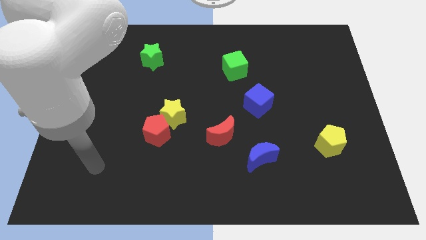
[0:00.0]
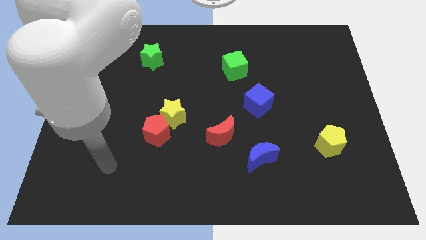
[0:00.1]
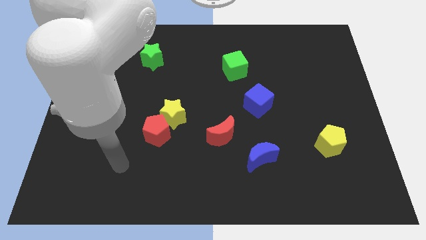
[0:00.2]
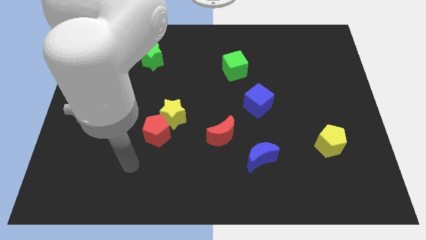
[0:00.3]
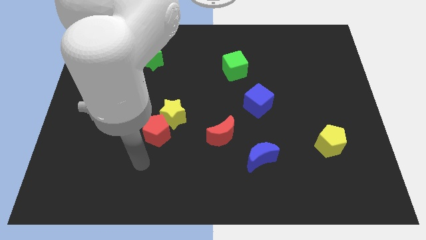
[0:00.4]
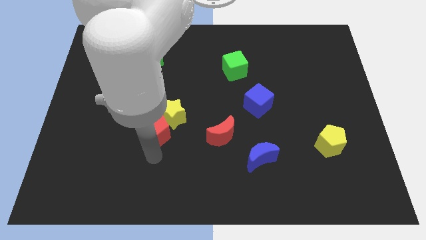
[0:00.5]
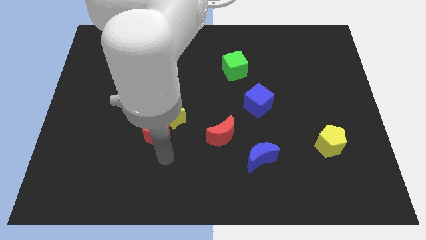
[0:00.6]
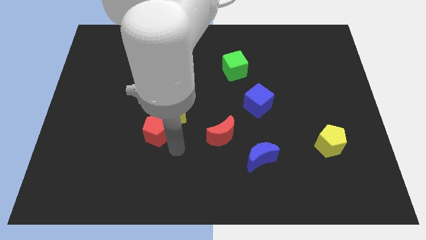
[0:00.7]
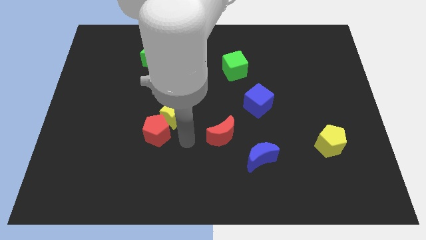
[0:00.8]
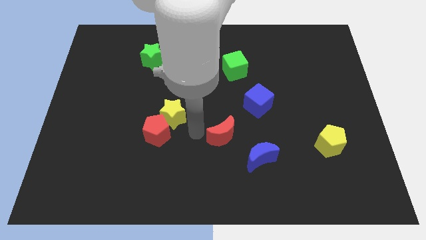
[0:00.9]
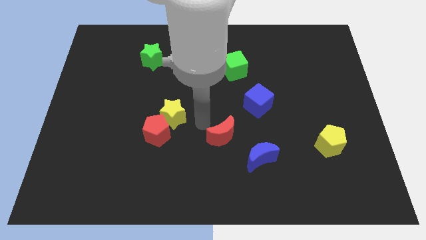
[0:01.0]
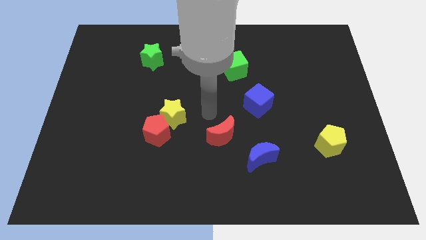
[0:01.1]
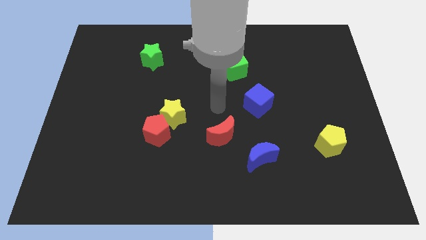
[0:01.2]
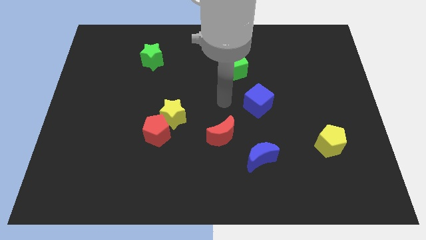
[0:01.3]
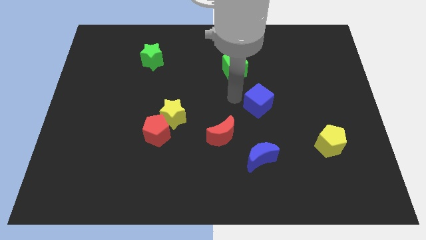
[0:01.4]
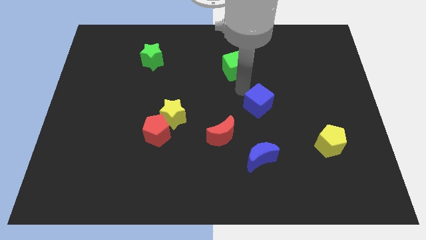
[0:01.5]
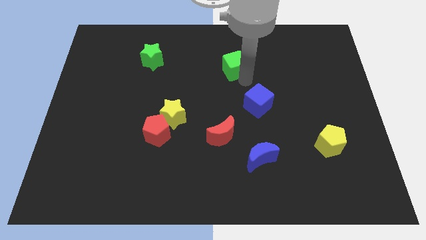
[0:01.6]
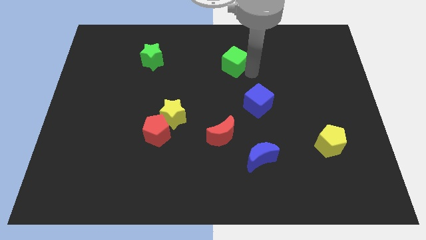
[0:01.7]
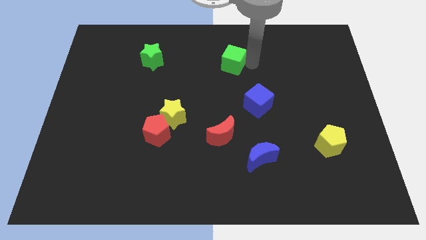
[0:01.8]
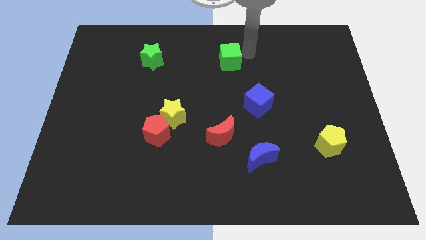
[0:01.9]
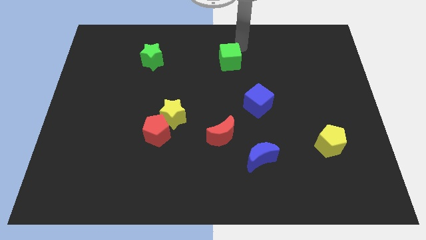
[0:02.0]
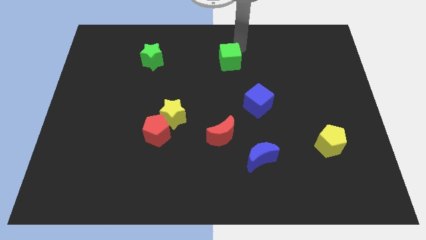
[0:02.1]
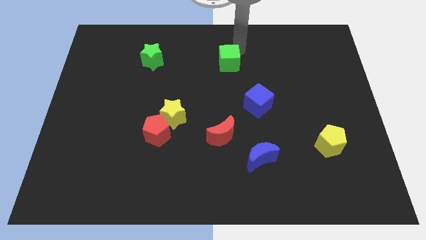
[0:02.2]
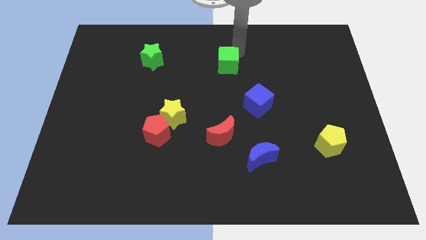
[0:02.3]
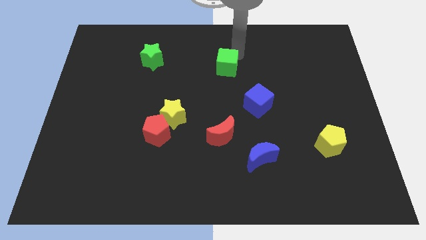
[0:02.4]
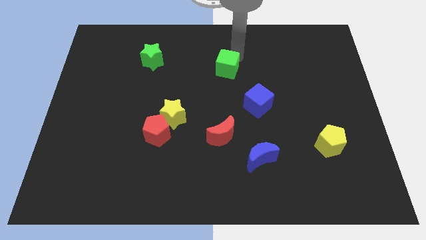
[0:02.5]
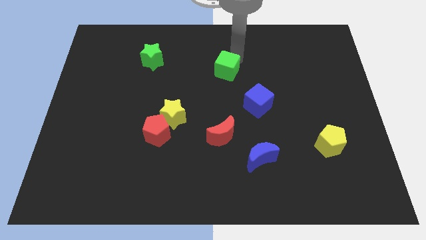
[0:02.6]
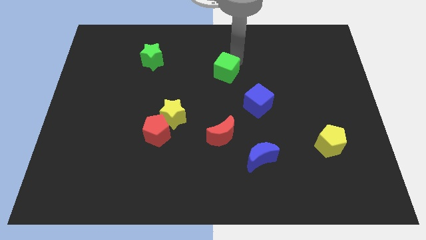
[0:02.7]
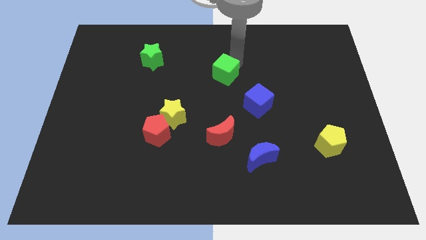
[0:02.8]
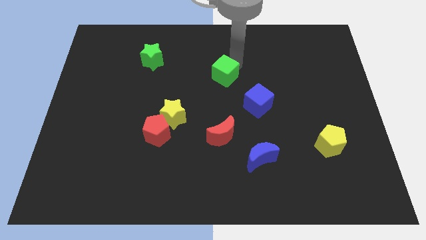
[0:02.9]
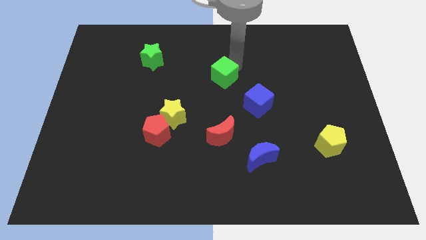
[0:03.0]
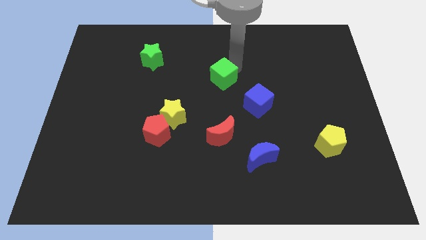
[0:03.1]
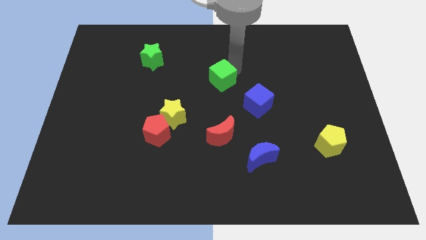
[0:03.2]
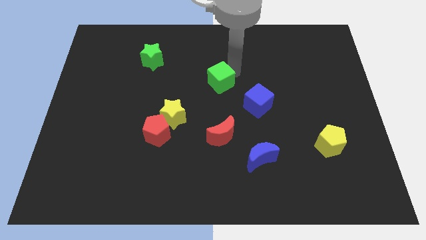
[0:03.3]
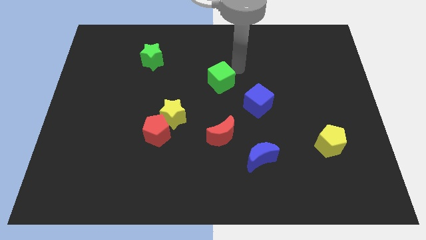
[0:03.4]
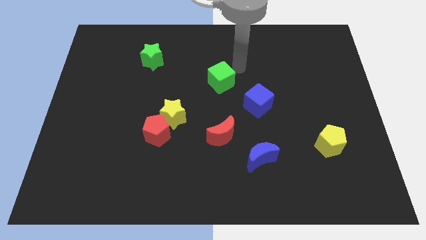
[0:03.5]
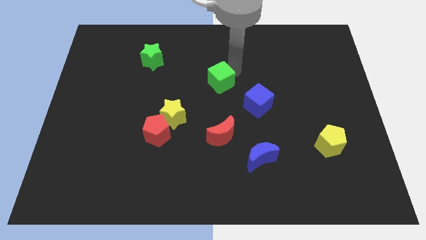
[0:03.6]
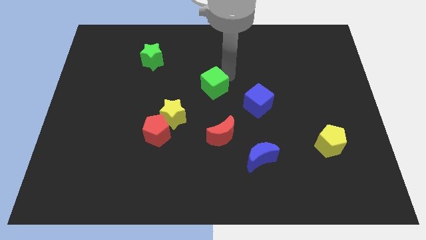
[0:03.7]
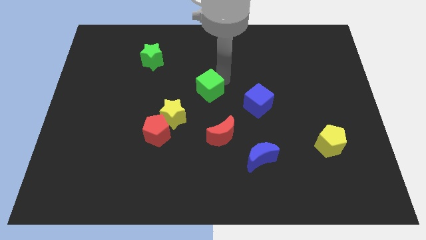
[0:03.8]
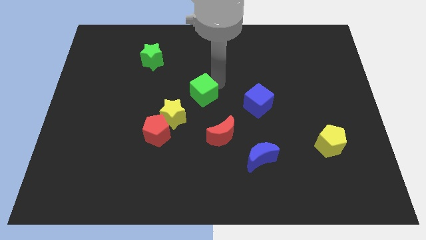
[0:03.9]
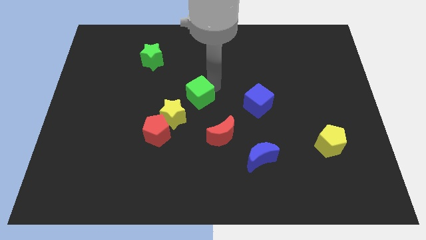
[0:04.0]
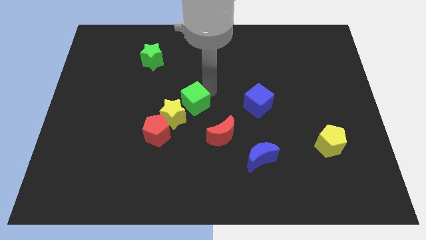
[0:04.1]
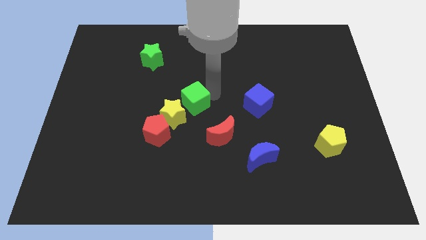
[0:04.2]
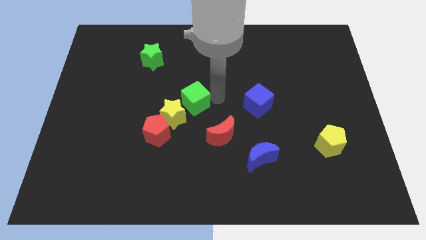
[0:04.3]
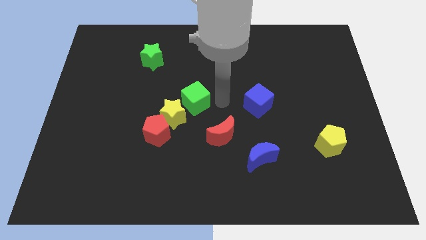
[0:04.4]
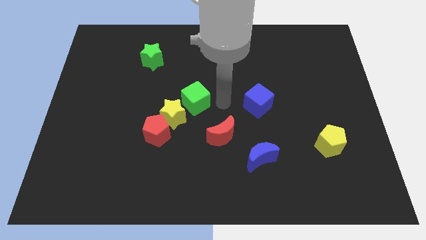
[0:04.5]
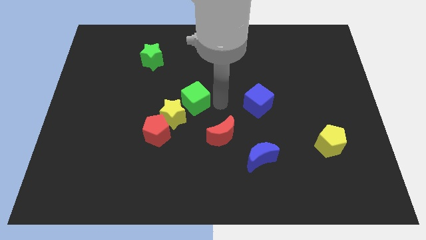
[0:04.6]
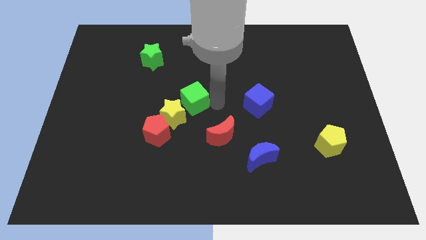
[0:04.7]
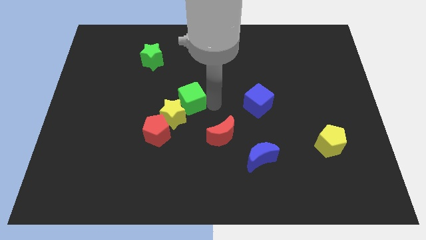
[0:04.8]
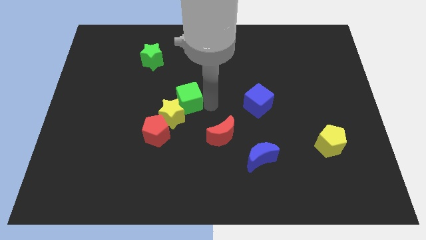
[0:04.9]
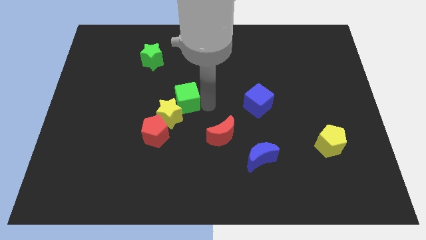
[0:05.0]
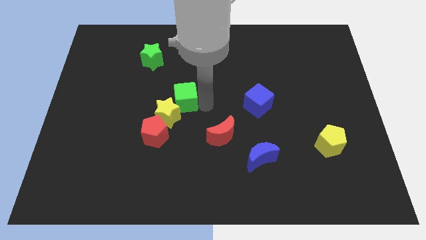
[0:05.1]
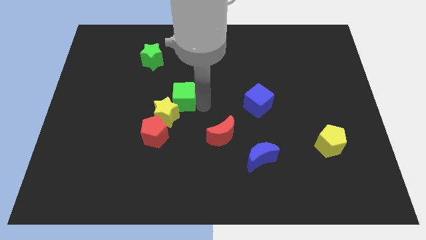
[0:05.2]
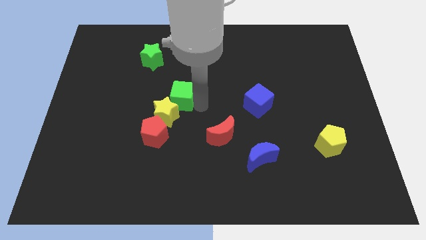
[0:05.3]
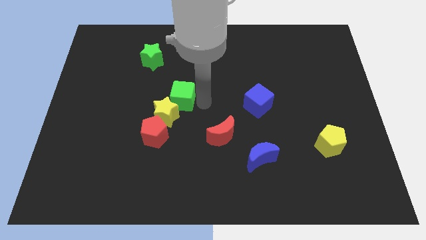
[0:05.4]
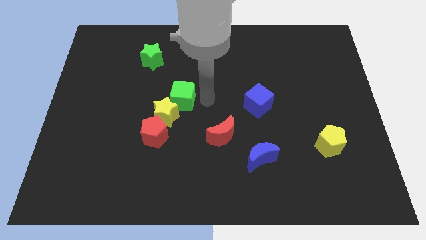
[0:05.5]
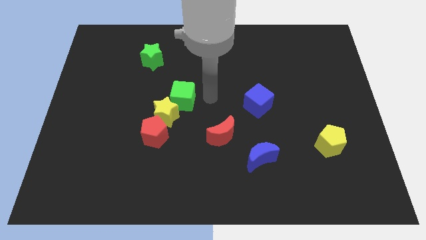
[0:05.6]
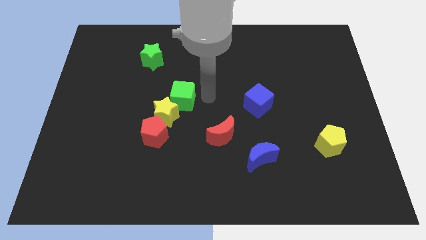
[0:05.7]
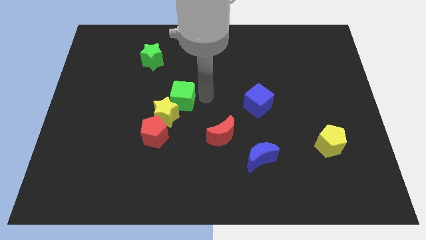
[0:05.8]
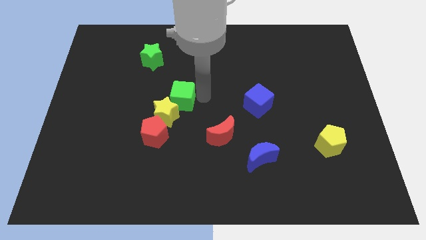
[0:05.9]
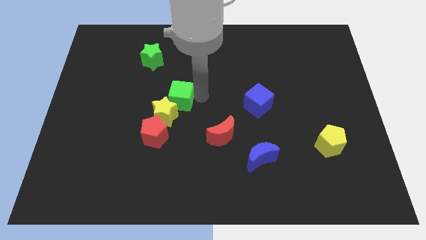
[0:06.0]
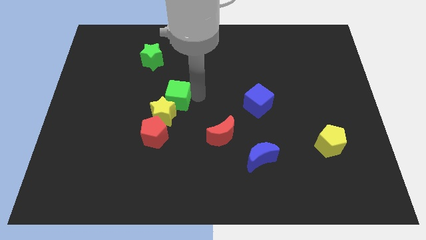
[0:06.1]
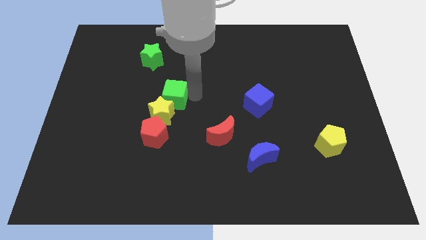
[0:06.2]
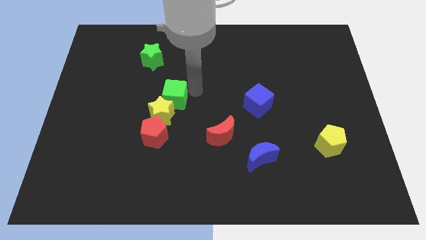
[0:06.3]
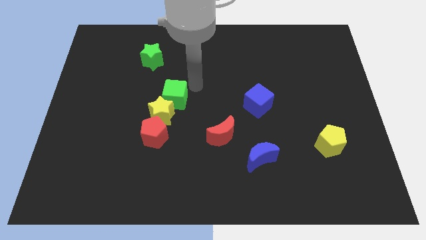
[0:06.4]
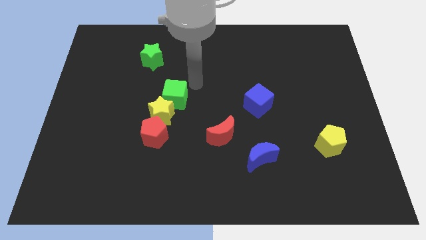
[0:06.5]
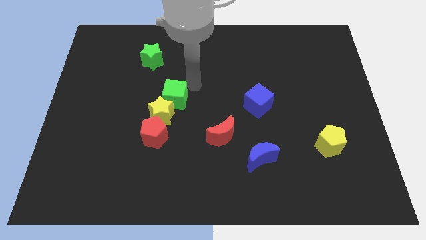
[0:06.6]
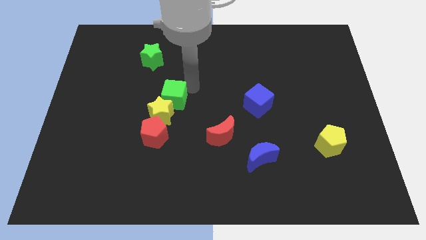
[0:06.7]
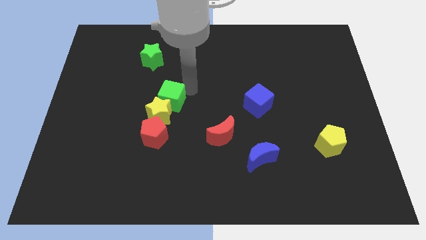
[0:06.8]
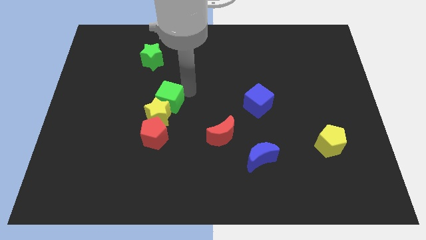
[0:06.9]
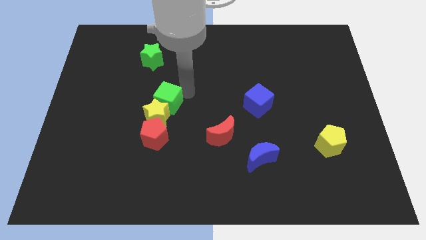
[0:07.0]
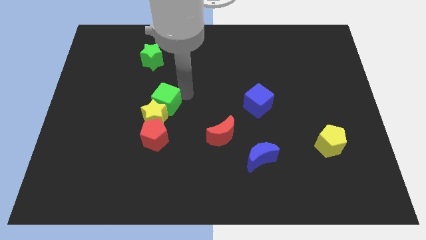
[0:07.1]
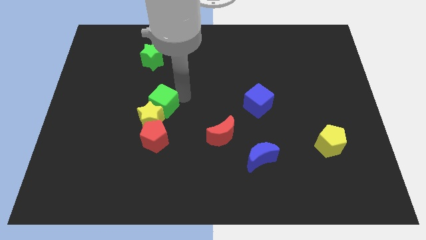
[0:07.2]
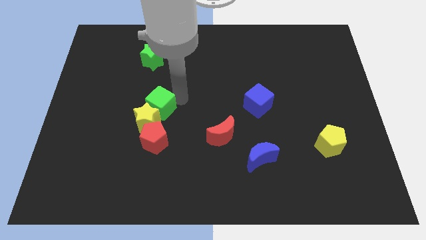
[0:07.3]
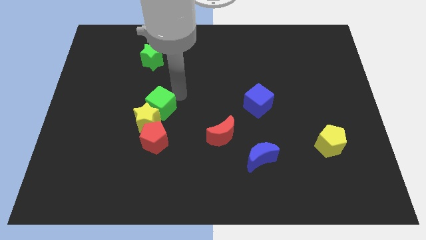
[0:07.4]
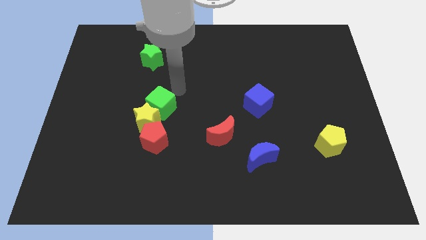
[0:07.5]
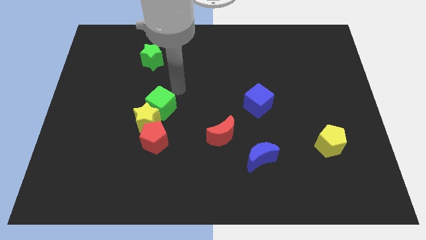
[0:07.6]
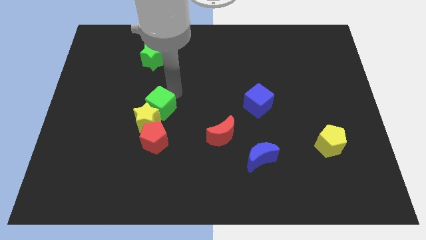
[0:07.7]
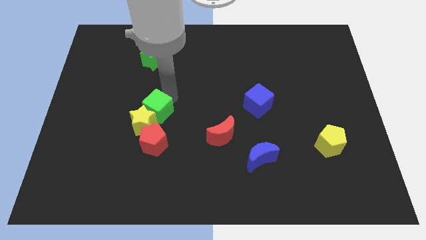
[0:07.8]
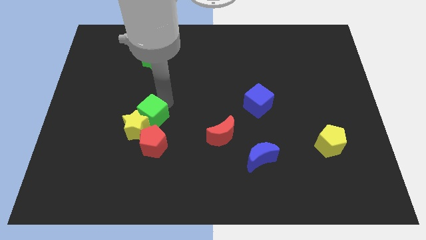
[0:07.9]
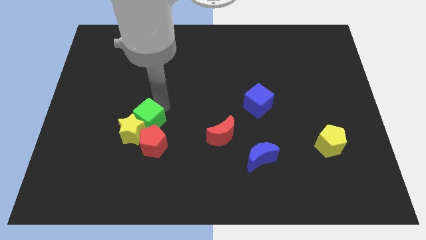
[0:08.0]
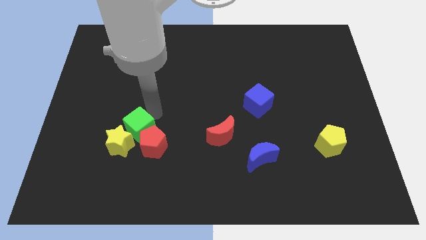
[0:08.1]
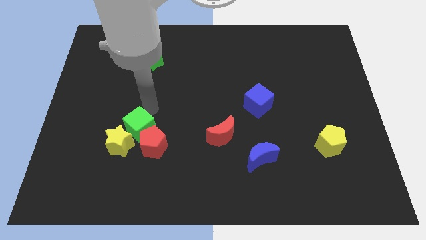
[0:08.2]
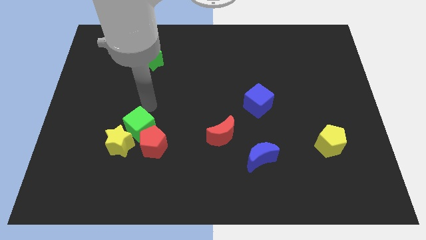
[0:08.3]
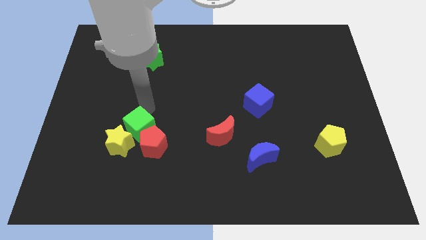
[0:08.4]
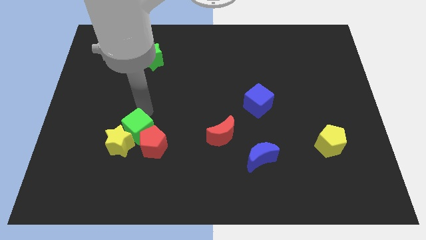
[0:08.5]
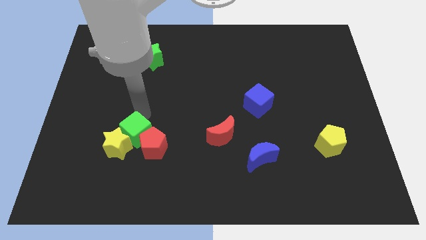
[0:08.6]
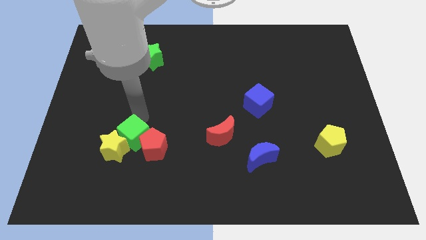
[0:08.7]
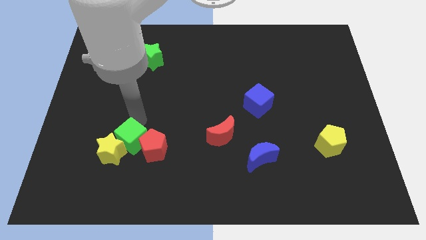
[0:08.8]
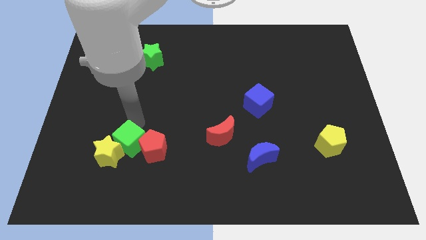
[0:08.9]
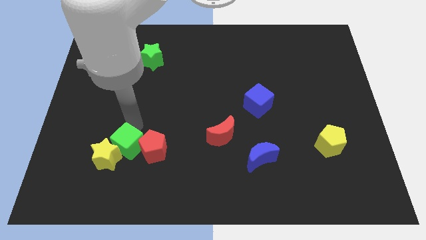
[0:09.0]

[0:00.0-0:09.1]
put the green cube to the bottom left side of the red pentagon
